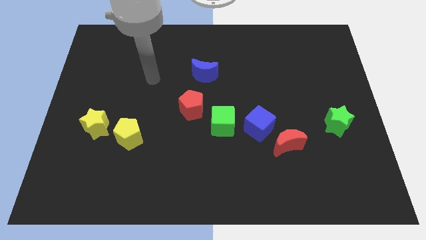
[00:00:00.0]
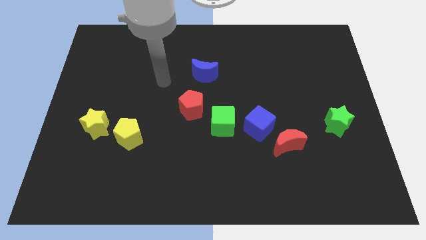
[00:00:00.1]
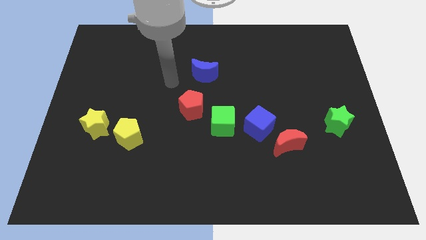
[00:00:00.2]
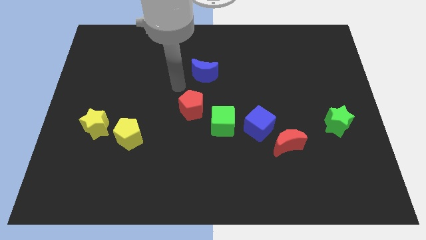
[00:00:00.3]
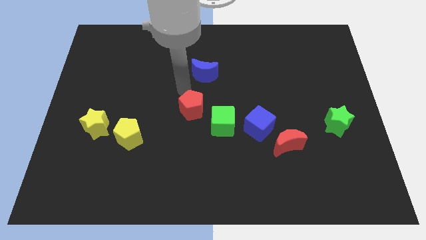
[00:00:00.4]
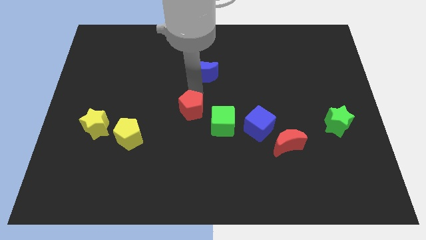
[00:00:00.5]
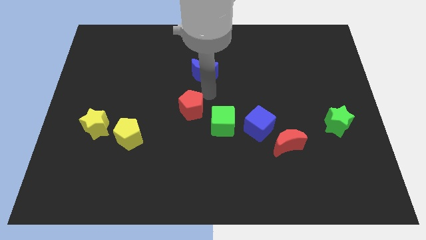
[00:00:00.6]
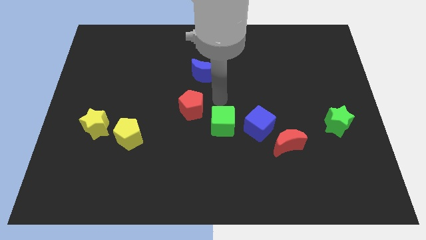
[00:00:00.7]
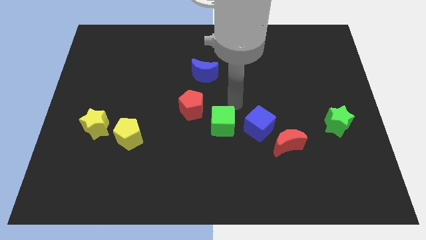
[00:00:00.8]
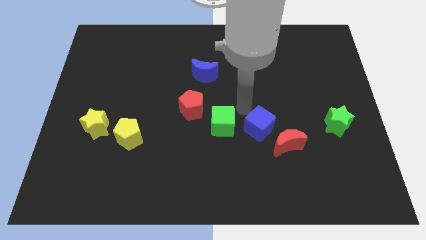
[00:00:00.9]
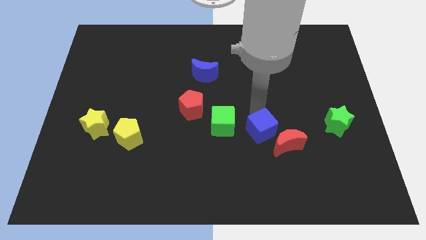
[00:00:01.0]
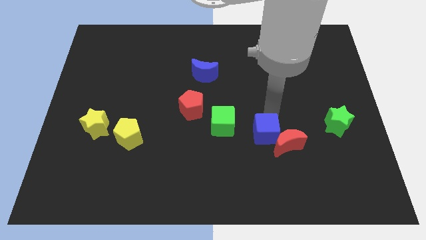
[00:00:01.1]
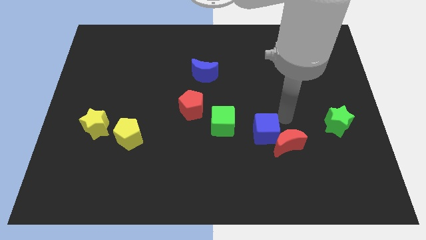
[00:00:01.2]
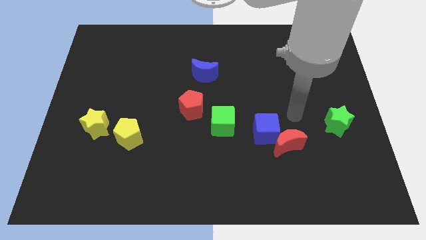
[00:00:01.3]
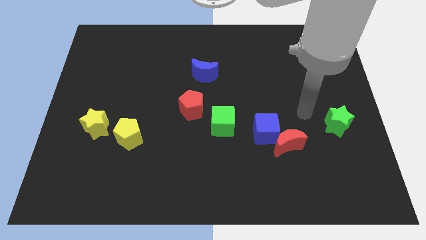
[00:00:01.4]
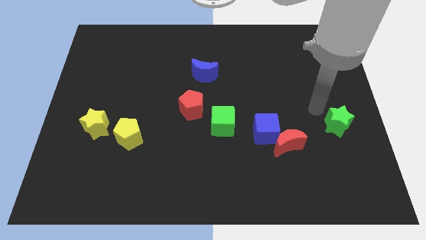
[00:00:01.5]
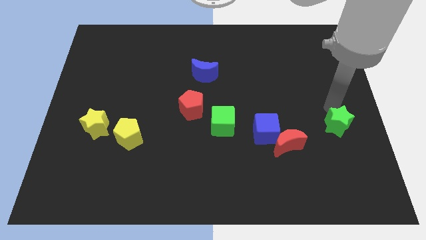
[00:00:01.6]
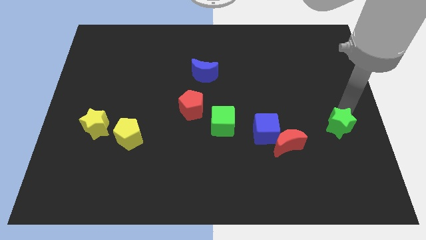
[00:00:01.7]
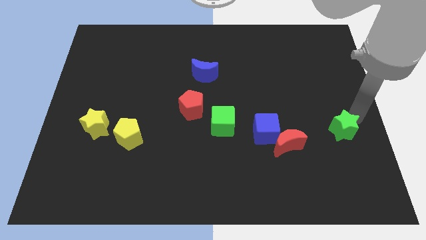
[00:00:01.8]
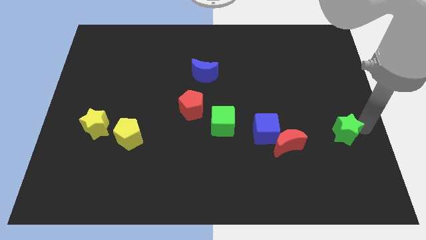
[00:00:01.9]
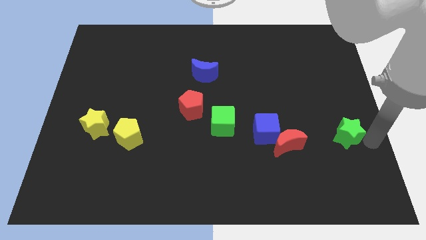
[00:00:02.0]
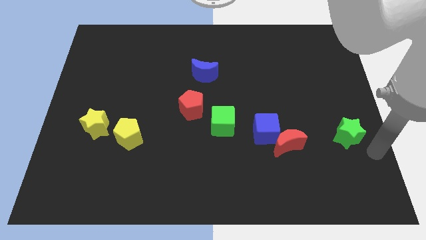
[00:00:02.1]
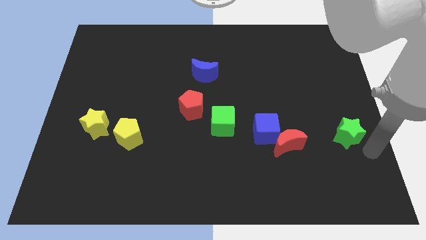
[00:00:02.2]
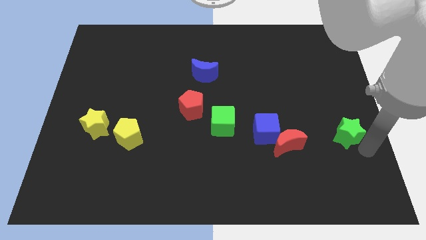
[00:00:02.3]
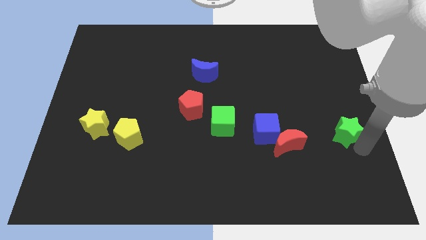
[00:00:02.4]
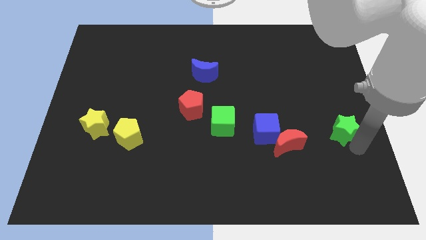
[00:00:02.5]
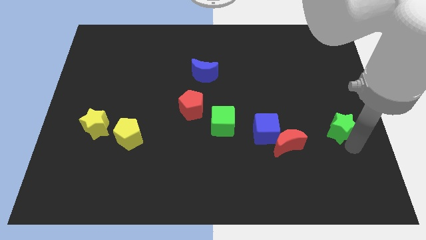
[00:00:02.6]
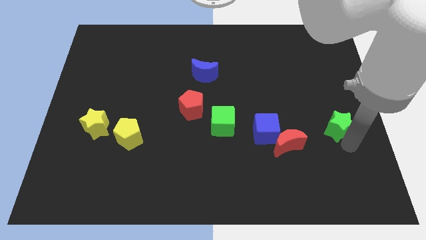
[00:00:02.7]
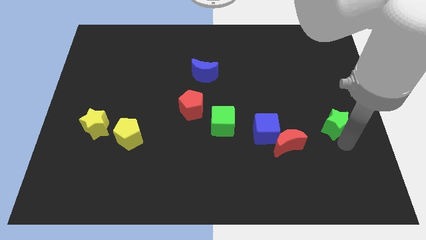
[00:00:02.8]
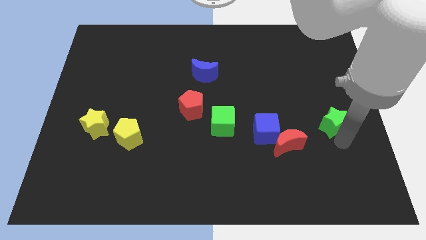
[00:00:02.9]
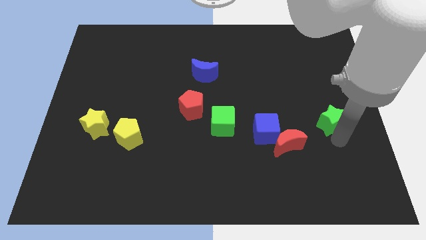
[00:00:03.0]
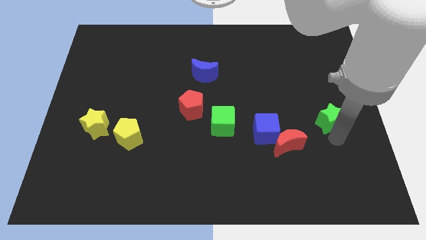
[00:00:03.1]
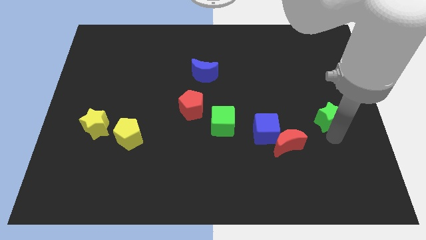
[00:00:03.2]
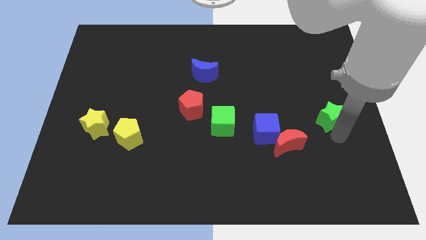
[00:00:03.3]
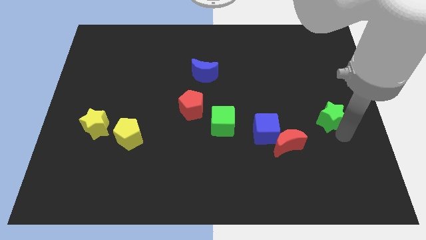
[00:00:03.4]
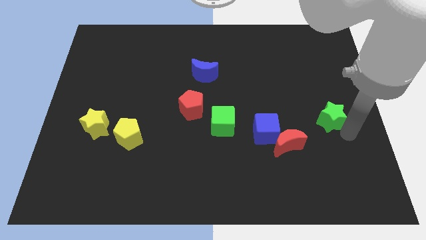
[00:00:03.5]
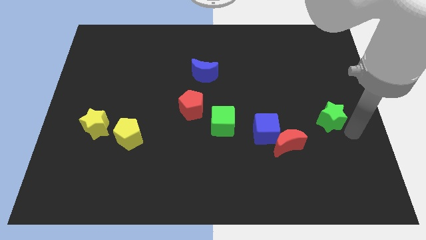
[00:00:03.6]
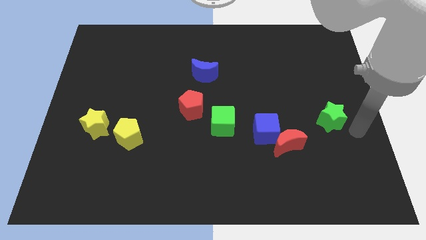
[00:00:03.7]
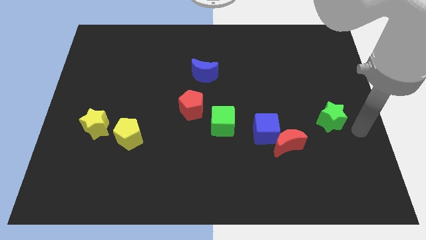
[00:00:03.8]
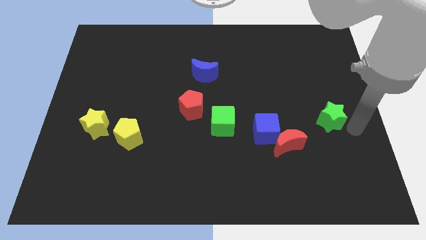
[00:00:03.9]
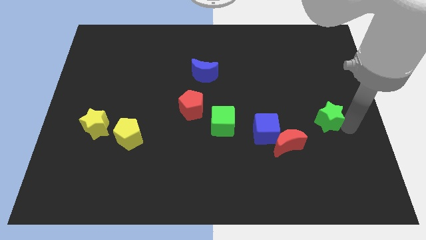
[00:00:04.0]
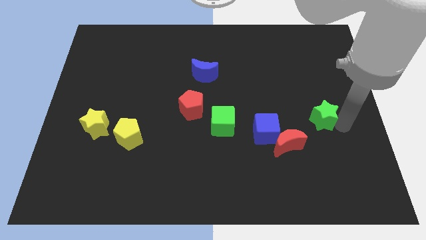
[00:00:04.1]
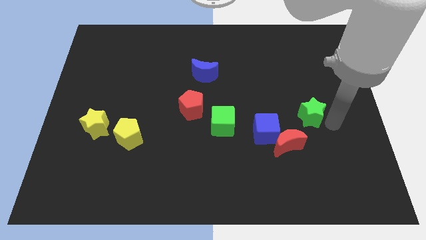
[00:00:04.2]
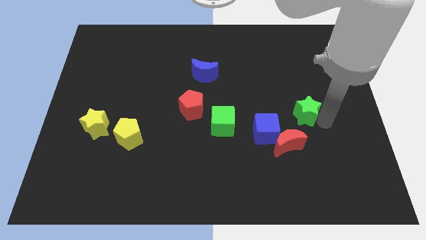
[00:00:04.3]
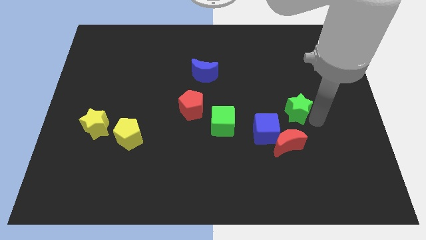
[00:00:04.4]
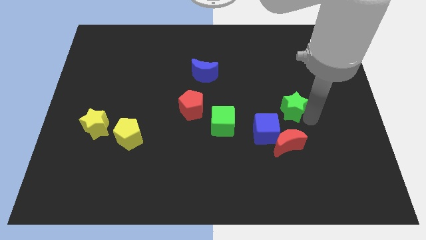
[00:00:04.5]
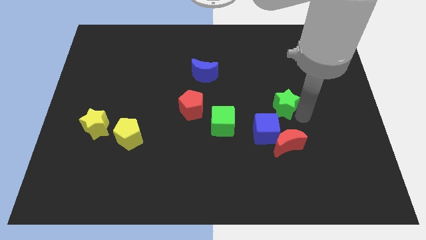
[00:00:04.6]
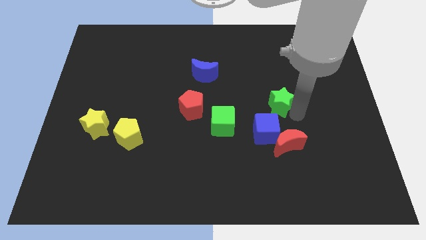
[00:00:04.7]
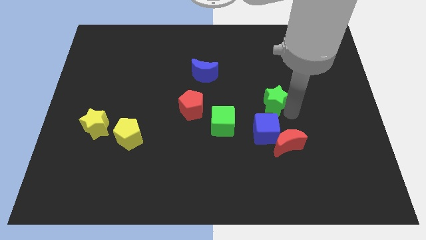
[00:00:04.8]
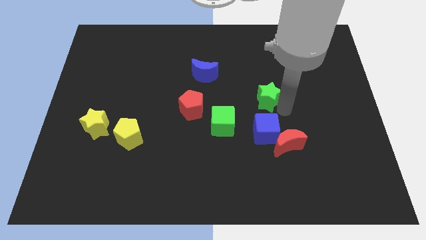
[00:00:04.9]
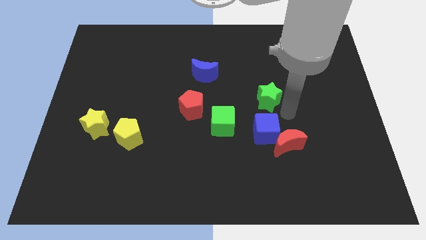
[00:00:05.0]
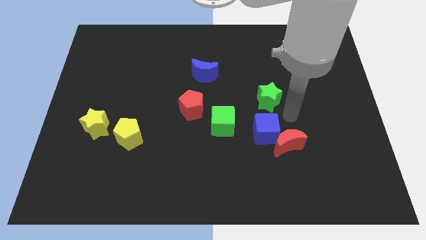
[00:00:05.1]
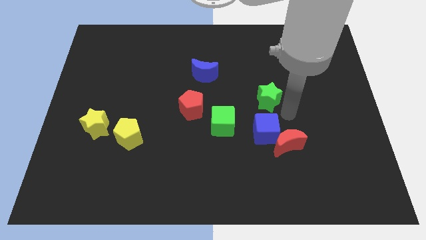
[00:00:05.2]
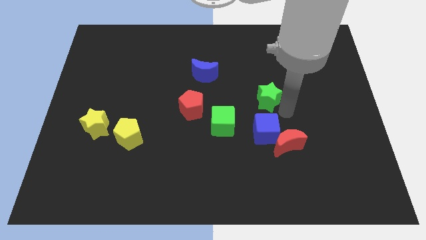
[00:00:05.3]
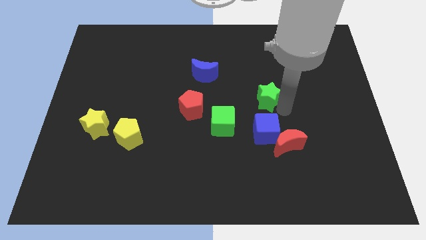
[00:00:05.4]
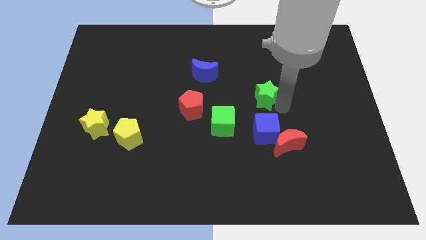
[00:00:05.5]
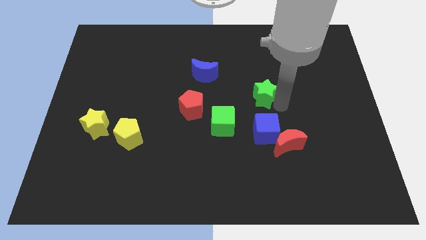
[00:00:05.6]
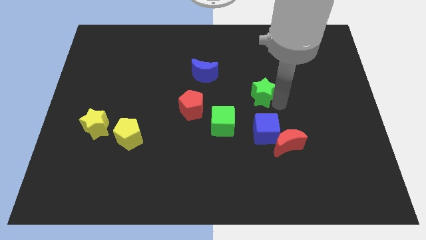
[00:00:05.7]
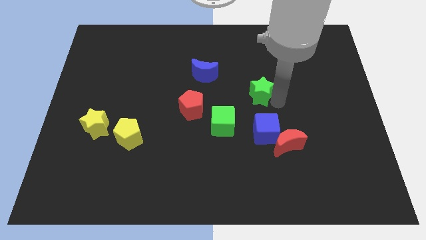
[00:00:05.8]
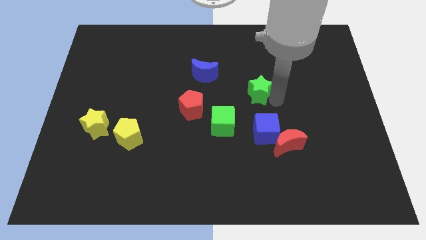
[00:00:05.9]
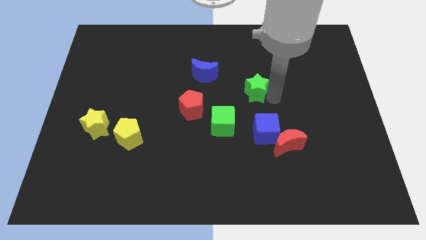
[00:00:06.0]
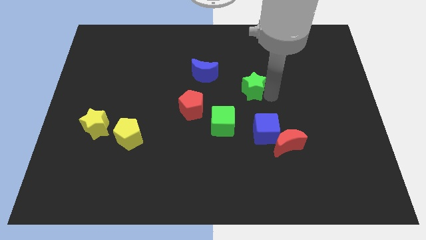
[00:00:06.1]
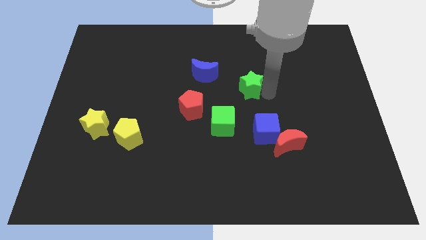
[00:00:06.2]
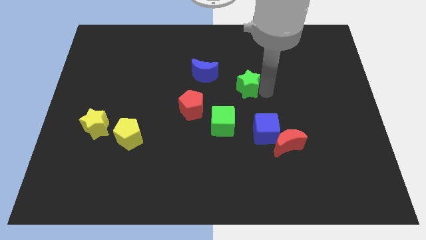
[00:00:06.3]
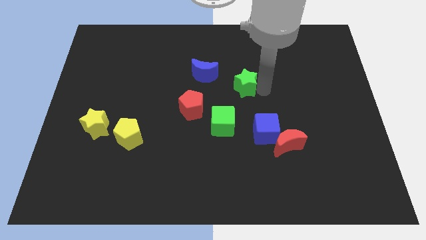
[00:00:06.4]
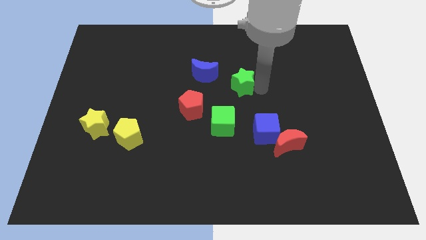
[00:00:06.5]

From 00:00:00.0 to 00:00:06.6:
put the green star above the green cube

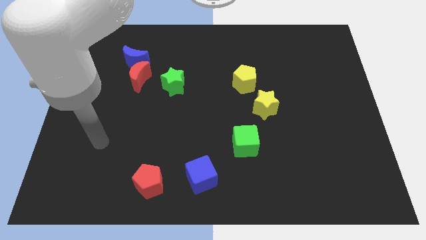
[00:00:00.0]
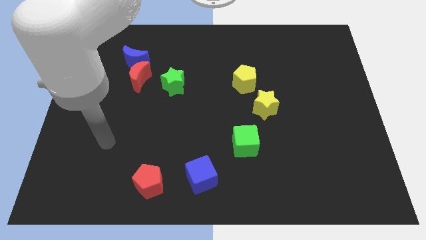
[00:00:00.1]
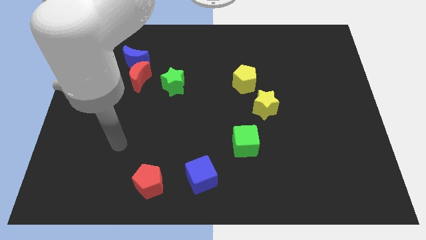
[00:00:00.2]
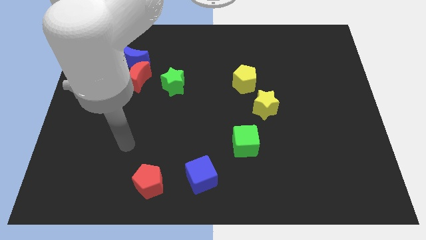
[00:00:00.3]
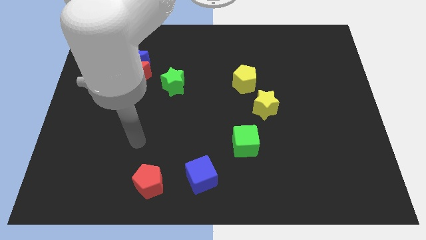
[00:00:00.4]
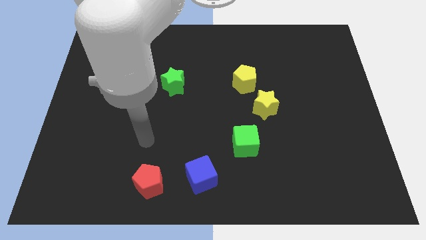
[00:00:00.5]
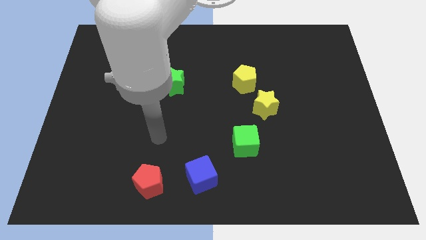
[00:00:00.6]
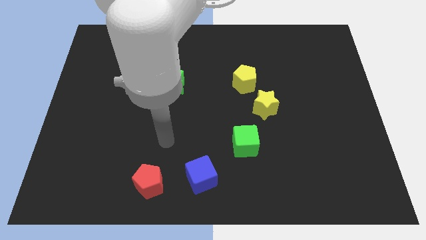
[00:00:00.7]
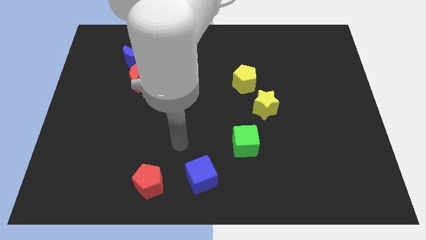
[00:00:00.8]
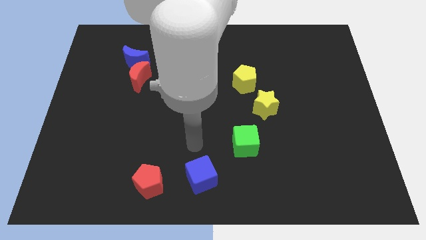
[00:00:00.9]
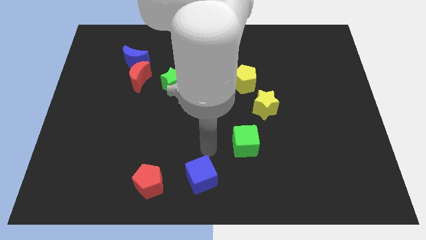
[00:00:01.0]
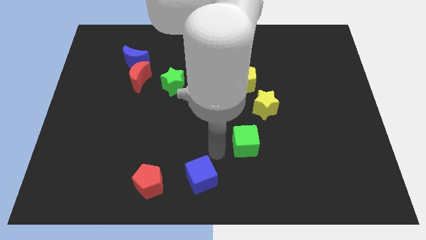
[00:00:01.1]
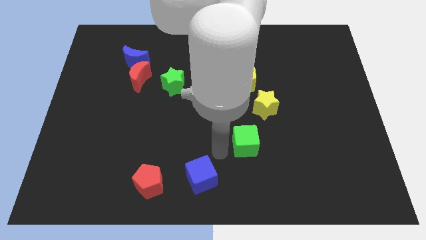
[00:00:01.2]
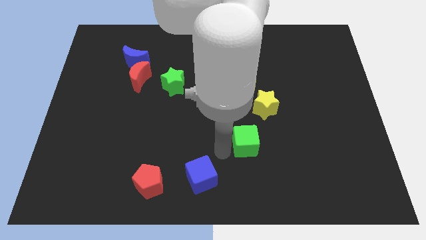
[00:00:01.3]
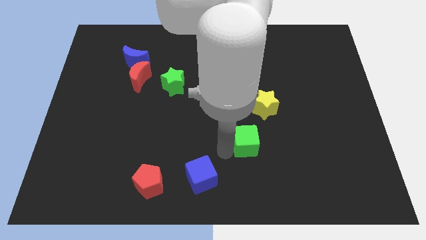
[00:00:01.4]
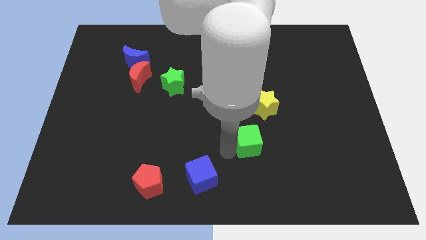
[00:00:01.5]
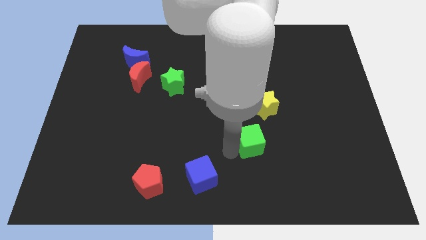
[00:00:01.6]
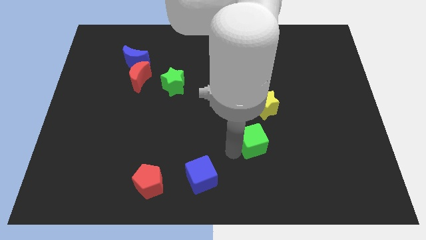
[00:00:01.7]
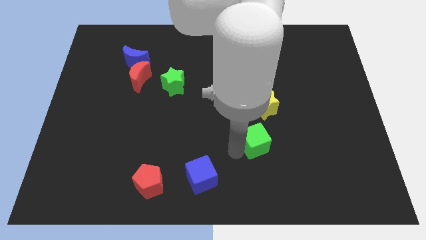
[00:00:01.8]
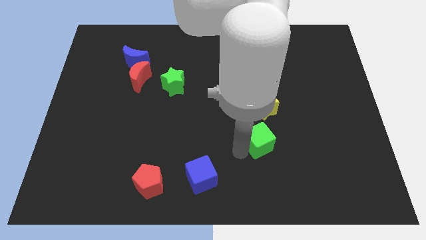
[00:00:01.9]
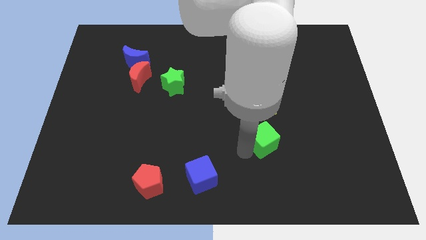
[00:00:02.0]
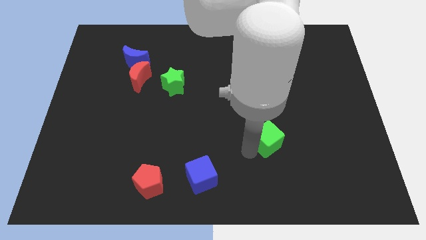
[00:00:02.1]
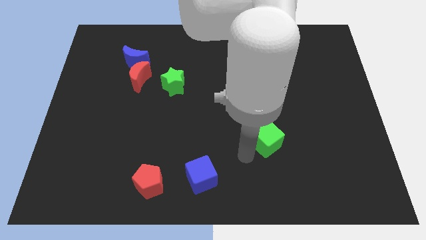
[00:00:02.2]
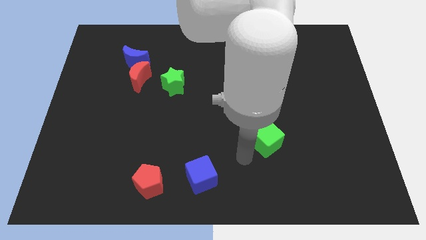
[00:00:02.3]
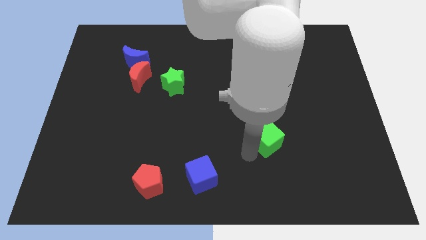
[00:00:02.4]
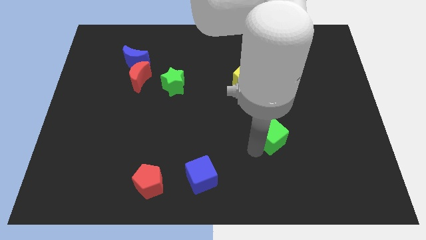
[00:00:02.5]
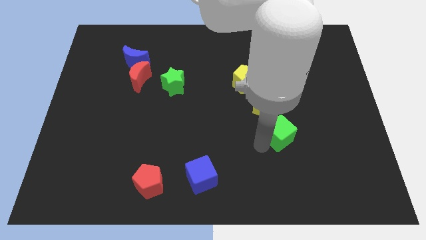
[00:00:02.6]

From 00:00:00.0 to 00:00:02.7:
slide the green cube to the bottom right side of the yellow star
